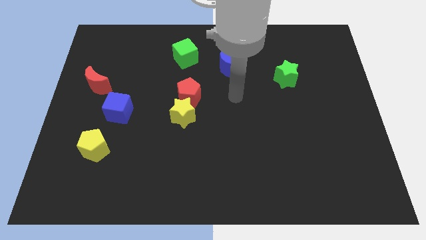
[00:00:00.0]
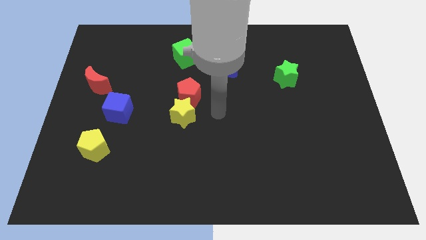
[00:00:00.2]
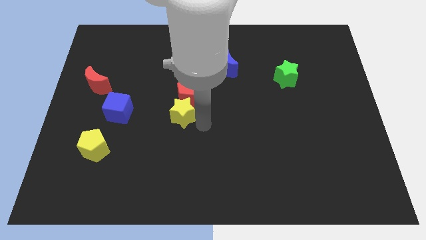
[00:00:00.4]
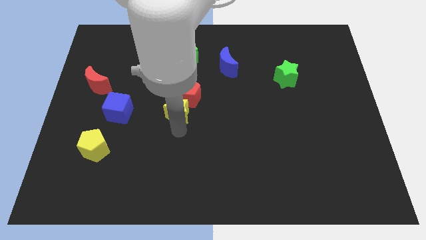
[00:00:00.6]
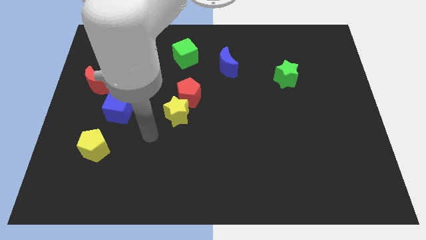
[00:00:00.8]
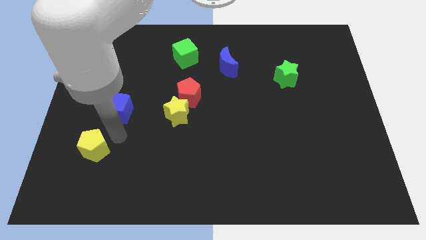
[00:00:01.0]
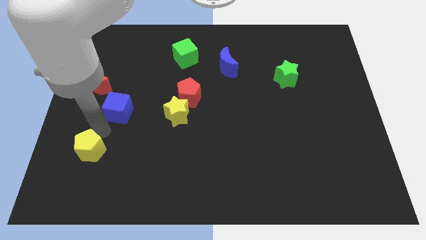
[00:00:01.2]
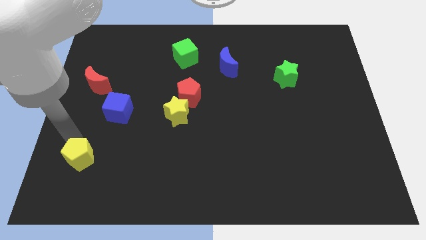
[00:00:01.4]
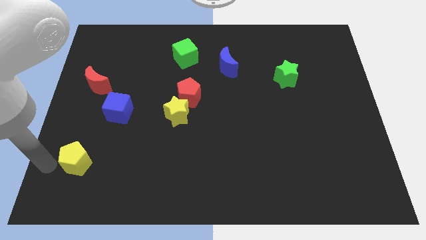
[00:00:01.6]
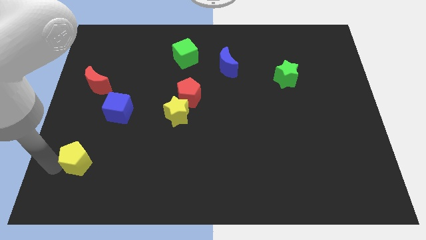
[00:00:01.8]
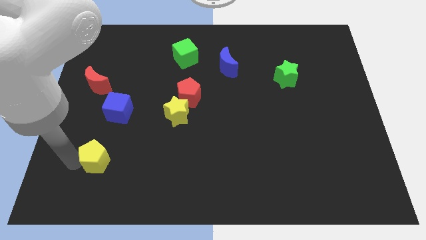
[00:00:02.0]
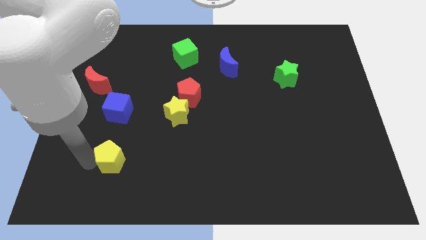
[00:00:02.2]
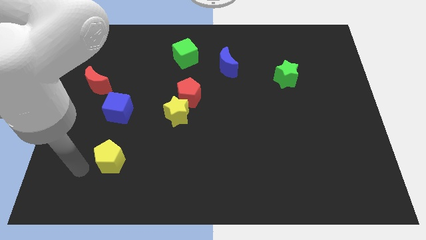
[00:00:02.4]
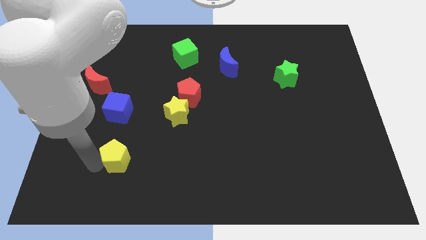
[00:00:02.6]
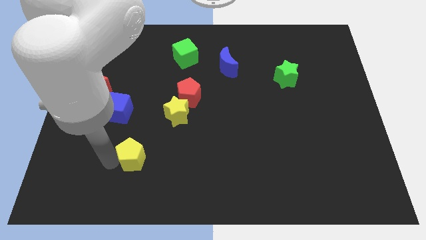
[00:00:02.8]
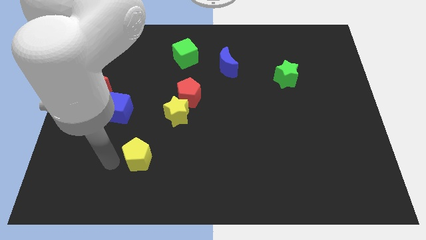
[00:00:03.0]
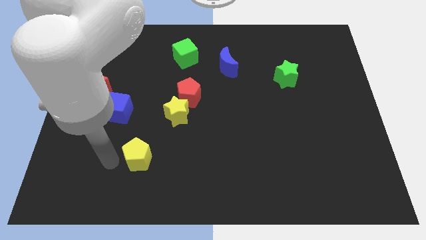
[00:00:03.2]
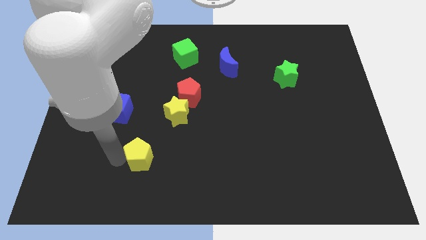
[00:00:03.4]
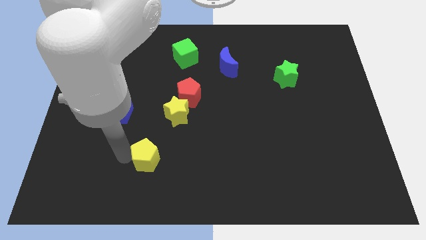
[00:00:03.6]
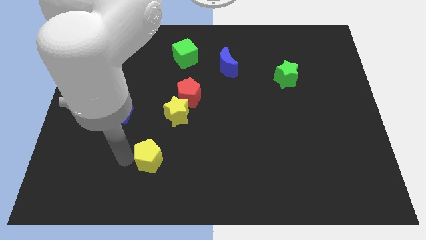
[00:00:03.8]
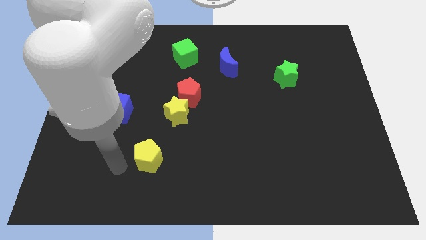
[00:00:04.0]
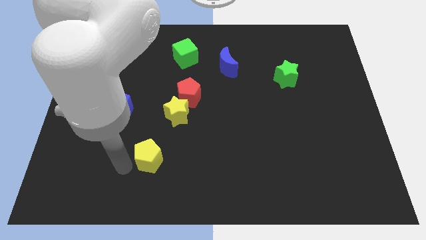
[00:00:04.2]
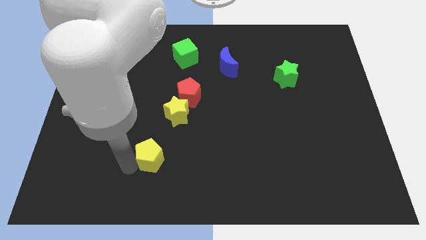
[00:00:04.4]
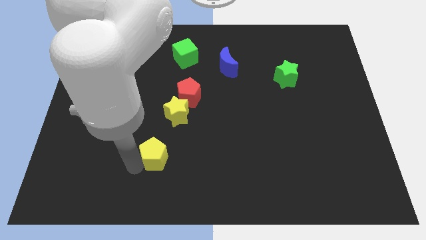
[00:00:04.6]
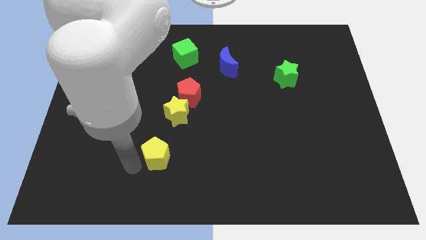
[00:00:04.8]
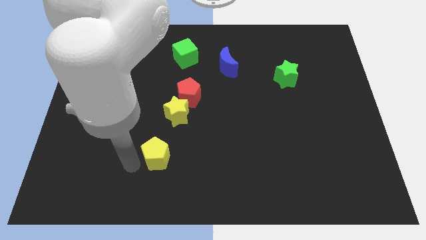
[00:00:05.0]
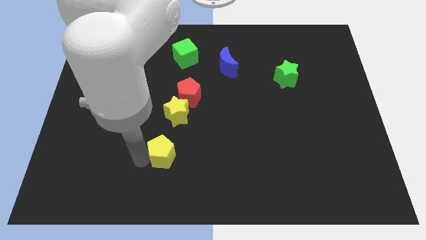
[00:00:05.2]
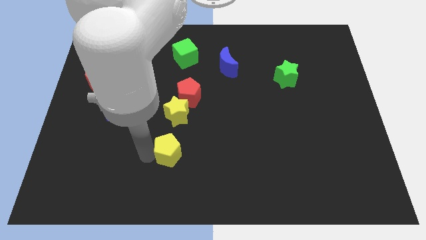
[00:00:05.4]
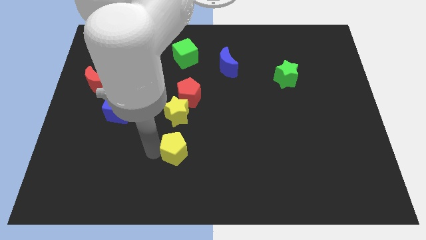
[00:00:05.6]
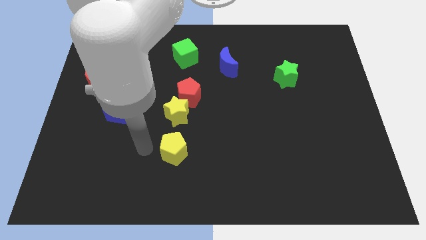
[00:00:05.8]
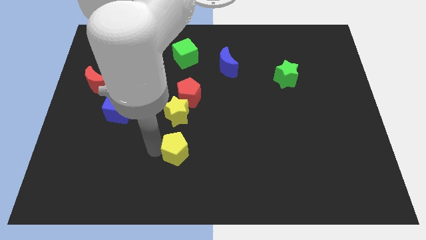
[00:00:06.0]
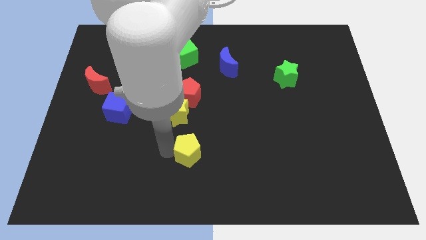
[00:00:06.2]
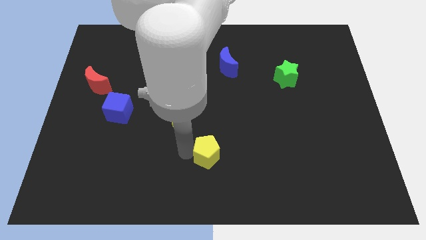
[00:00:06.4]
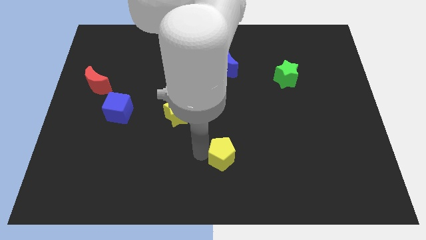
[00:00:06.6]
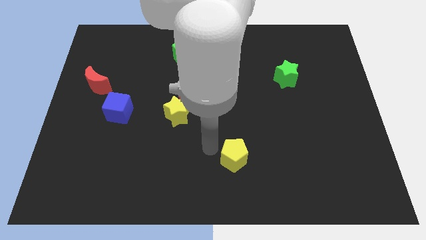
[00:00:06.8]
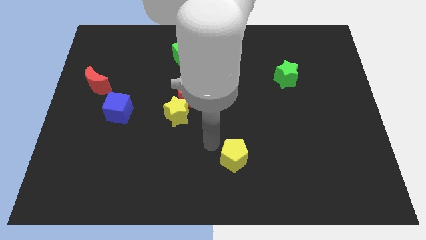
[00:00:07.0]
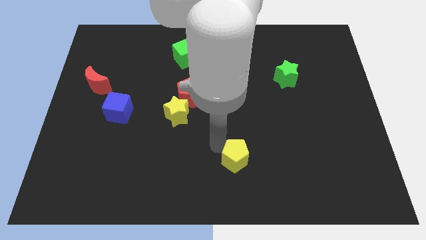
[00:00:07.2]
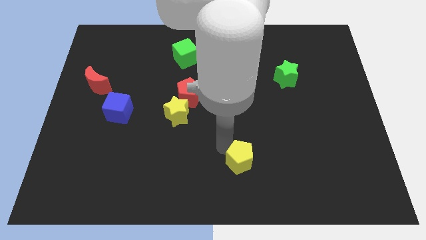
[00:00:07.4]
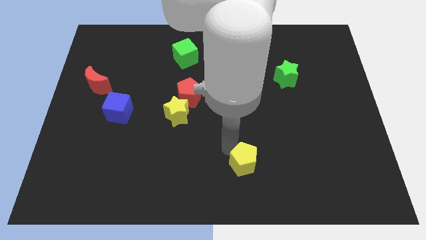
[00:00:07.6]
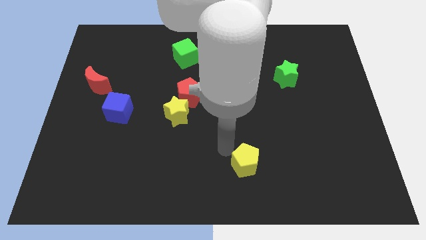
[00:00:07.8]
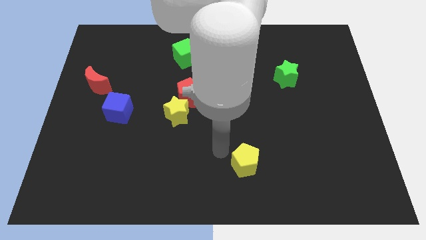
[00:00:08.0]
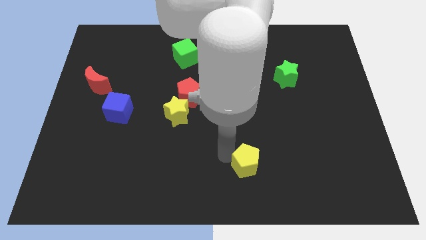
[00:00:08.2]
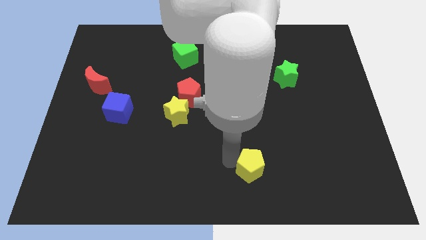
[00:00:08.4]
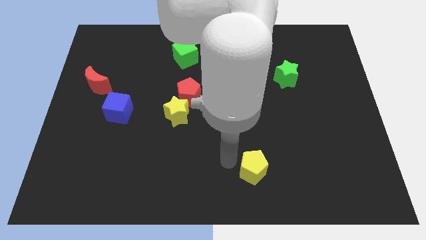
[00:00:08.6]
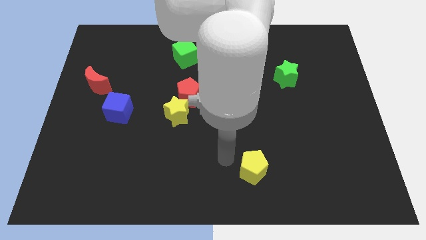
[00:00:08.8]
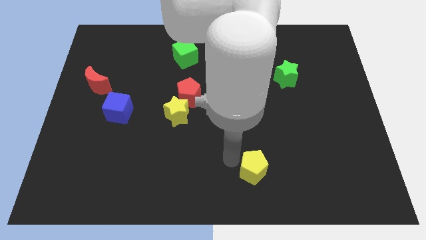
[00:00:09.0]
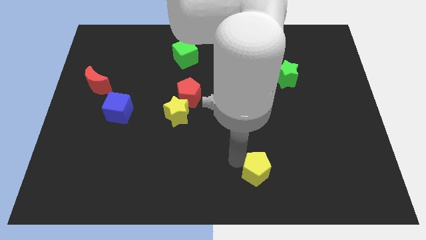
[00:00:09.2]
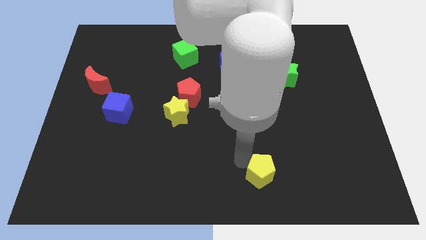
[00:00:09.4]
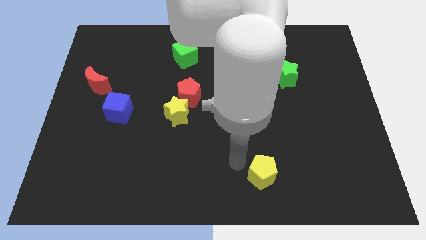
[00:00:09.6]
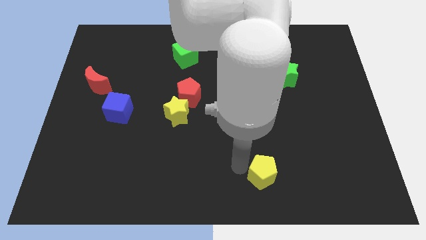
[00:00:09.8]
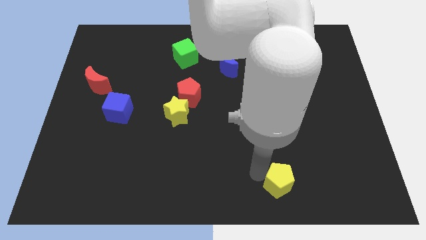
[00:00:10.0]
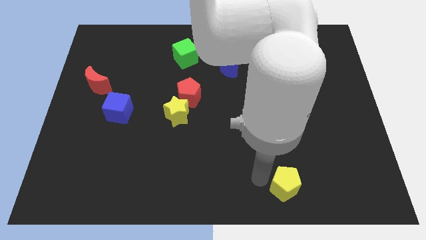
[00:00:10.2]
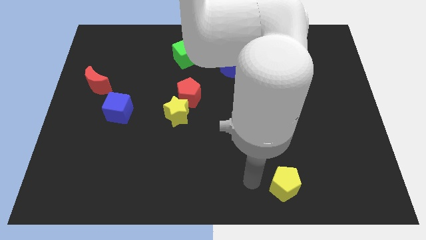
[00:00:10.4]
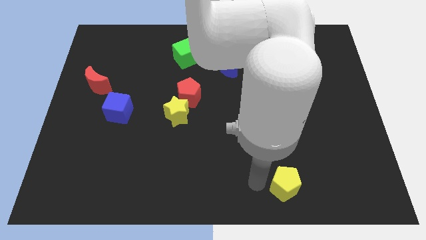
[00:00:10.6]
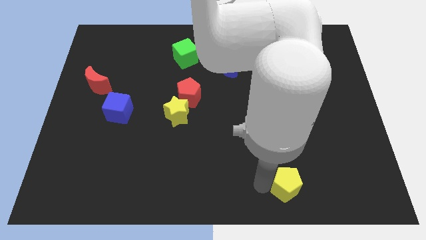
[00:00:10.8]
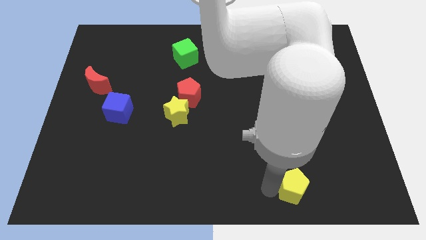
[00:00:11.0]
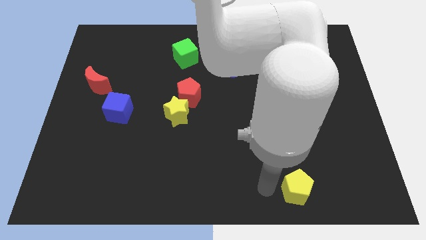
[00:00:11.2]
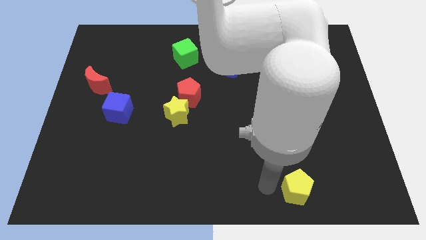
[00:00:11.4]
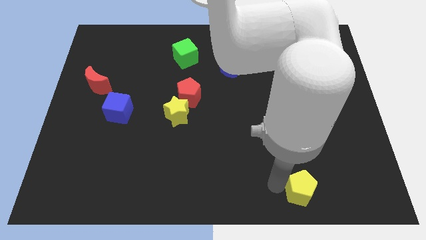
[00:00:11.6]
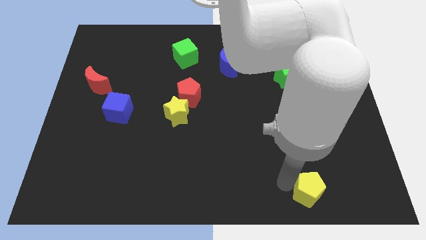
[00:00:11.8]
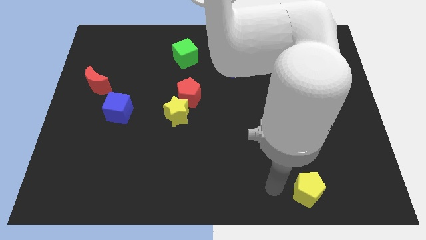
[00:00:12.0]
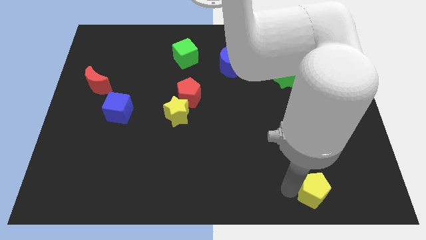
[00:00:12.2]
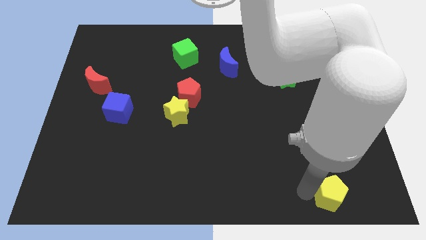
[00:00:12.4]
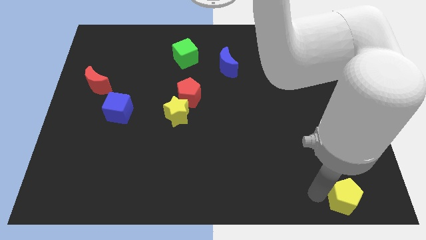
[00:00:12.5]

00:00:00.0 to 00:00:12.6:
push the yellow pentagon to the bottom right
